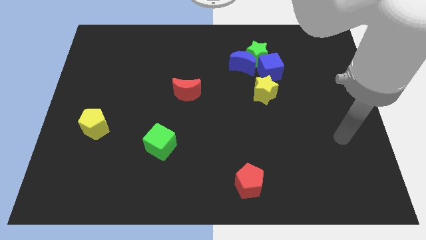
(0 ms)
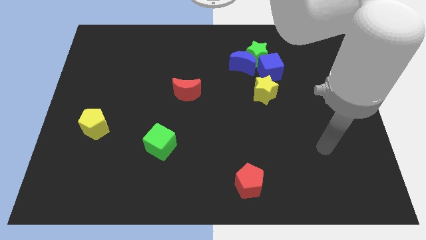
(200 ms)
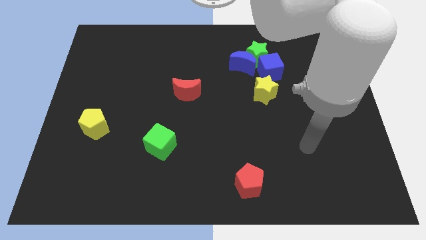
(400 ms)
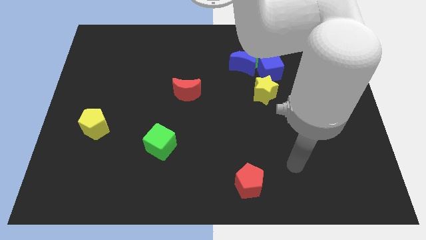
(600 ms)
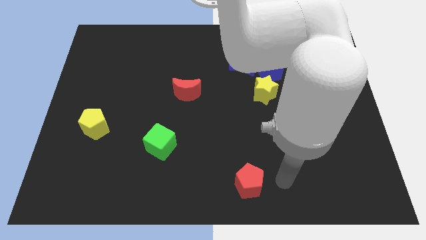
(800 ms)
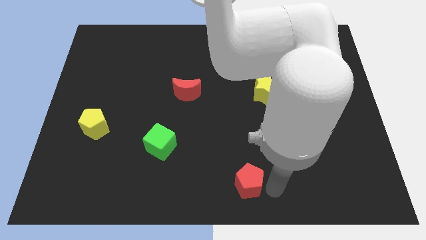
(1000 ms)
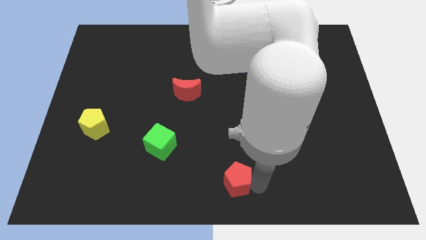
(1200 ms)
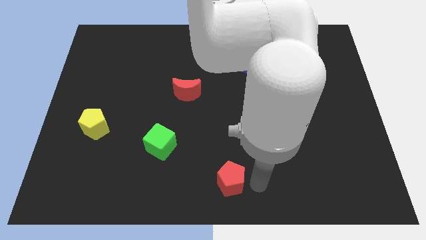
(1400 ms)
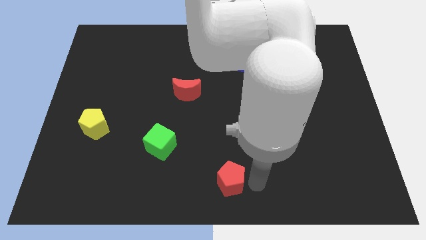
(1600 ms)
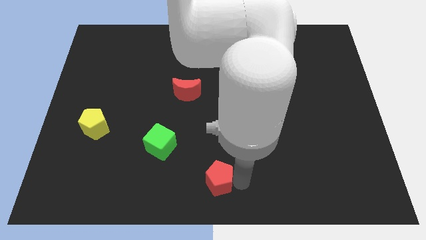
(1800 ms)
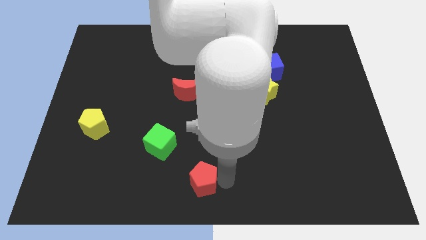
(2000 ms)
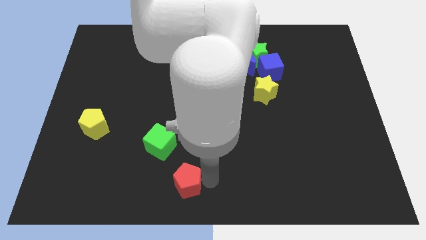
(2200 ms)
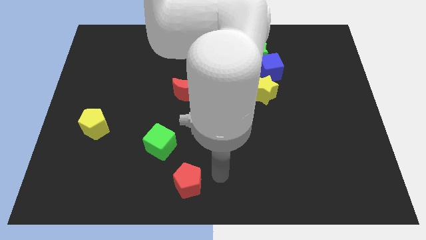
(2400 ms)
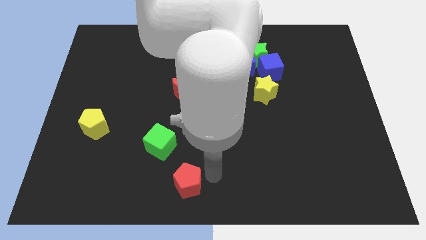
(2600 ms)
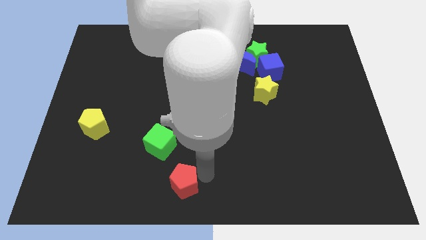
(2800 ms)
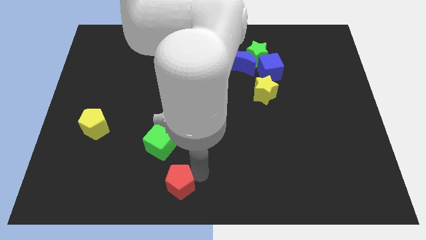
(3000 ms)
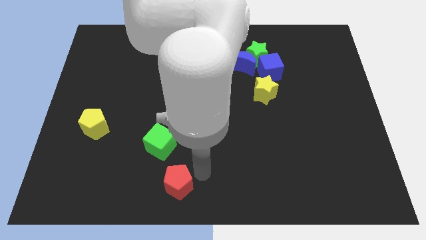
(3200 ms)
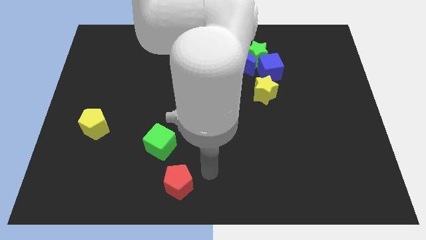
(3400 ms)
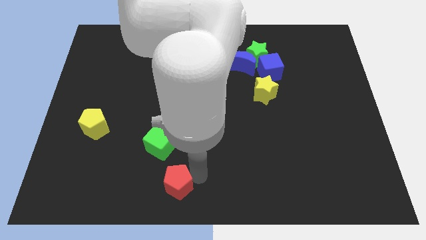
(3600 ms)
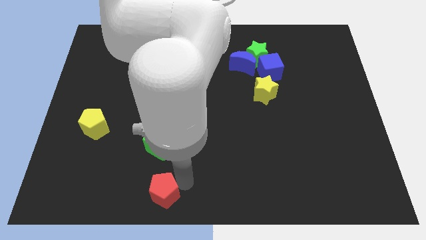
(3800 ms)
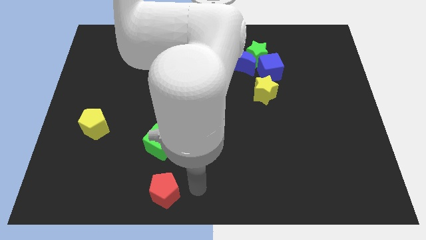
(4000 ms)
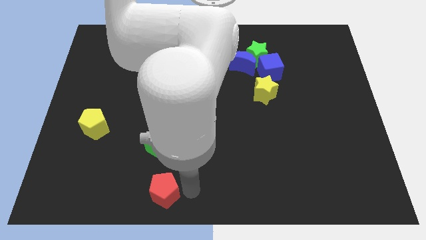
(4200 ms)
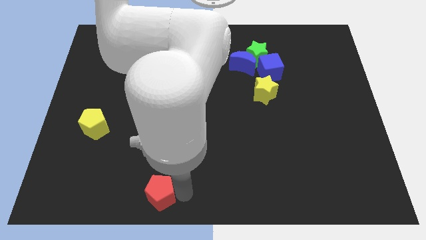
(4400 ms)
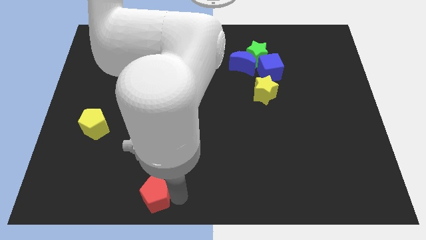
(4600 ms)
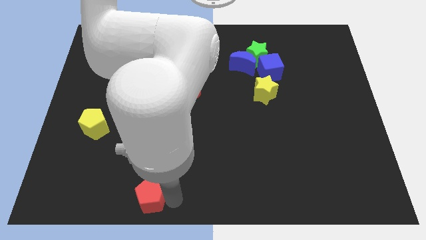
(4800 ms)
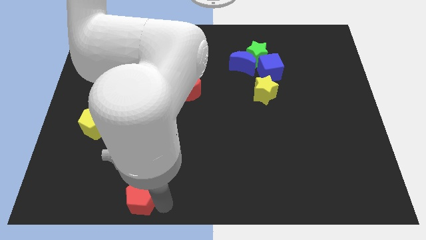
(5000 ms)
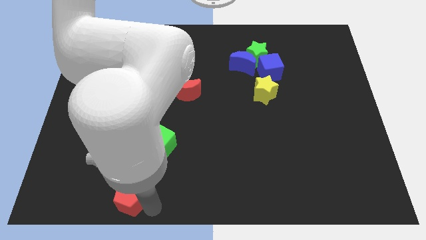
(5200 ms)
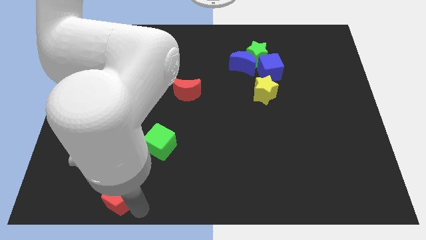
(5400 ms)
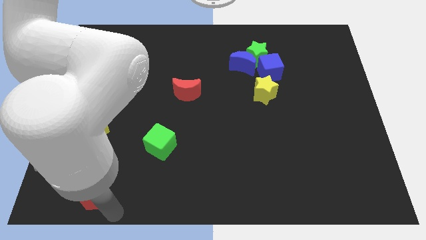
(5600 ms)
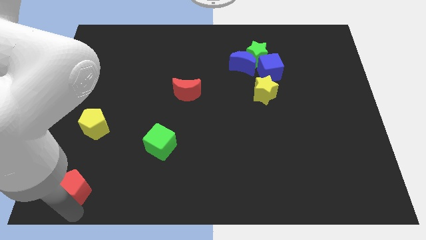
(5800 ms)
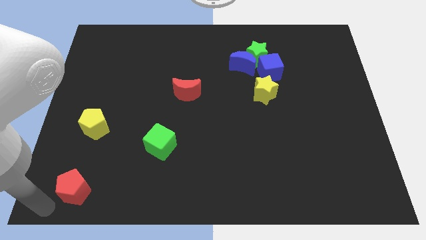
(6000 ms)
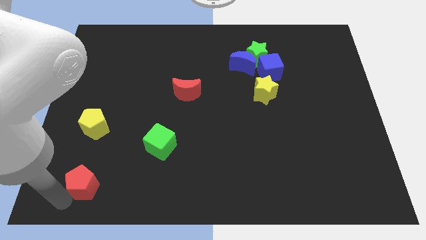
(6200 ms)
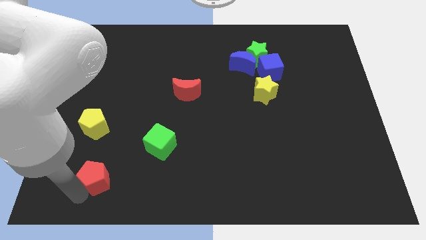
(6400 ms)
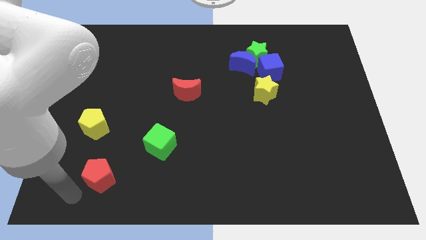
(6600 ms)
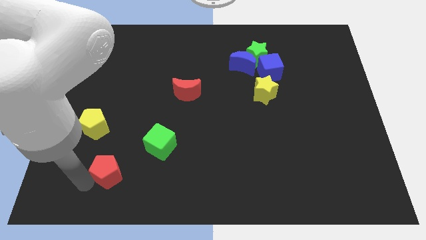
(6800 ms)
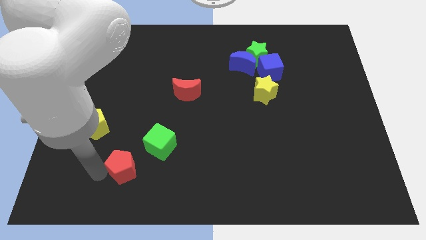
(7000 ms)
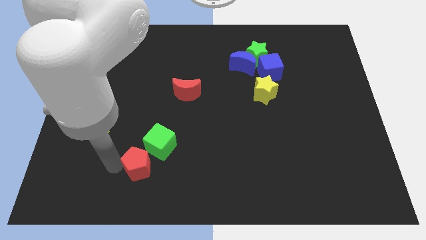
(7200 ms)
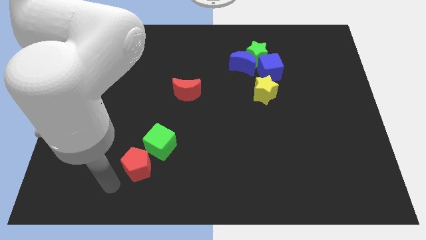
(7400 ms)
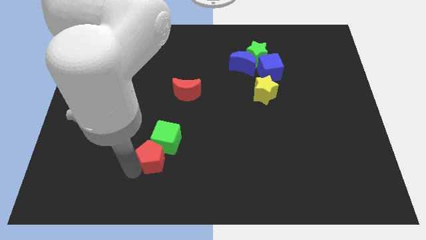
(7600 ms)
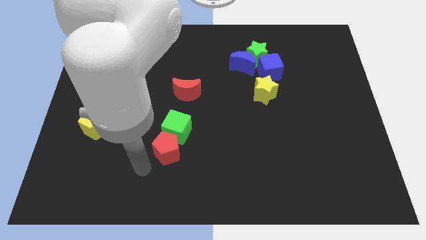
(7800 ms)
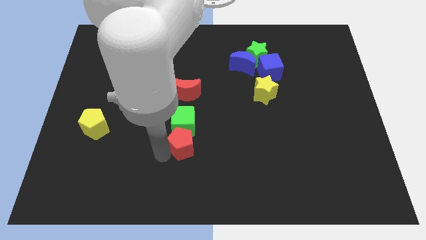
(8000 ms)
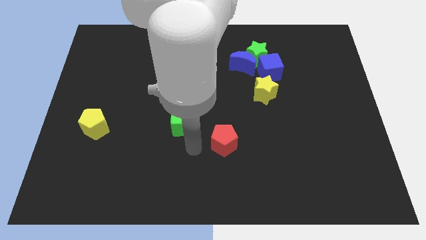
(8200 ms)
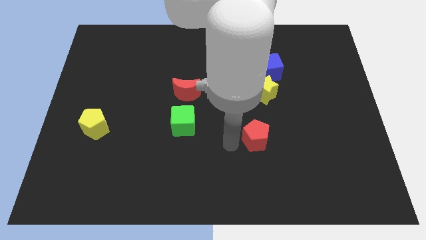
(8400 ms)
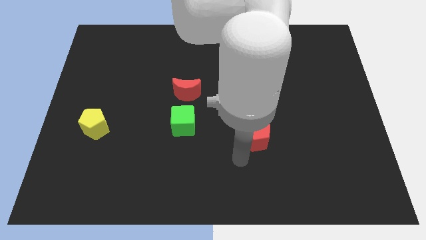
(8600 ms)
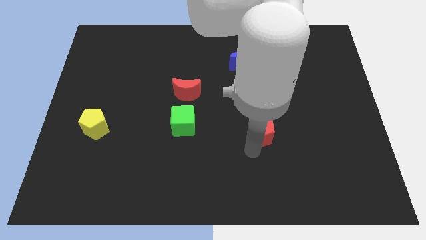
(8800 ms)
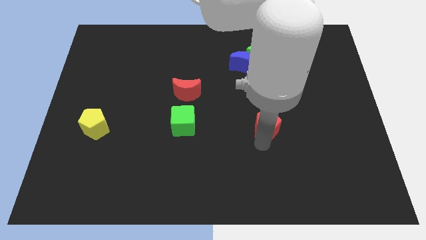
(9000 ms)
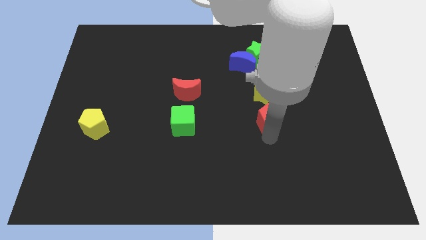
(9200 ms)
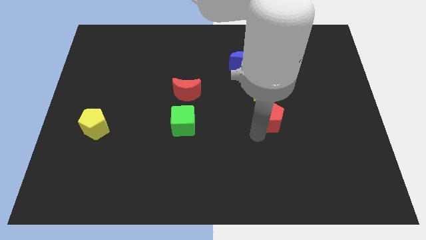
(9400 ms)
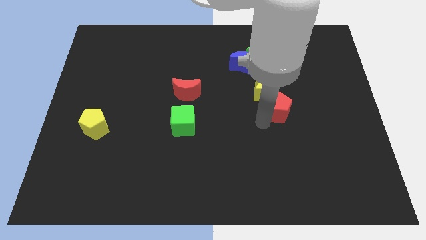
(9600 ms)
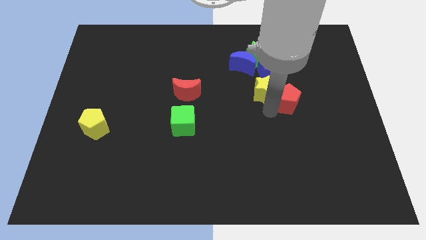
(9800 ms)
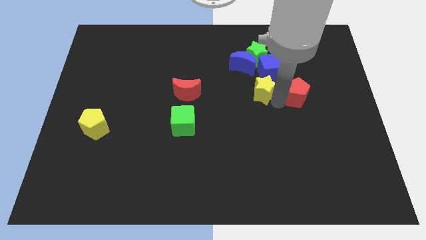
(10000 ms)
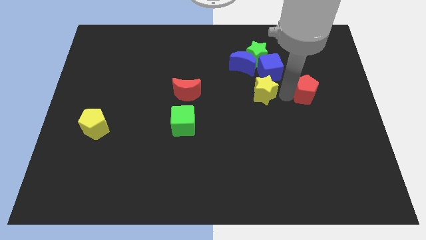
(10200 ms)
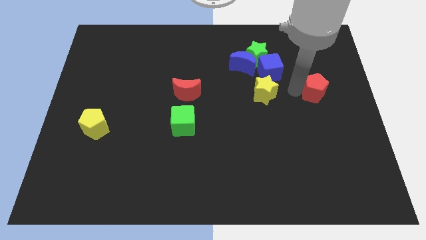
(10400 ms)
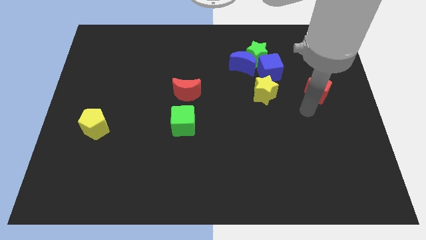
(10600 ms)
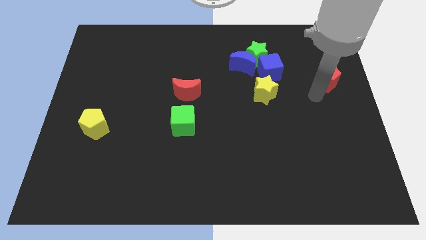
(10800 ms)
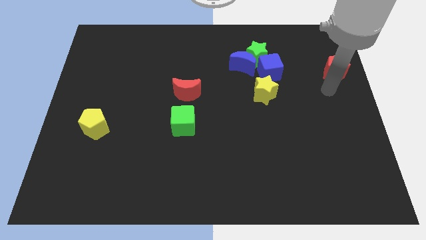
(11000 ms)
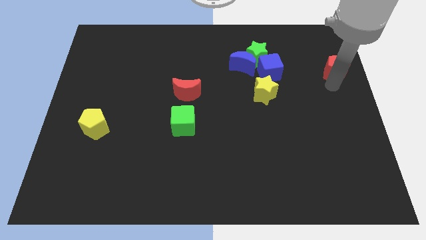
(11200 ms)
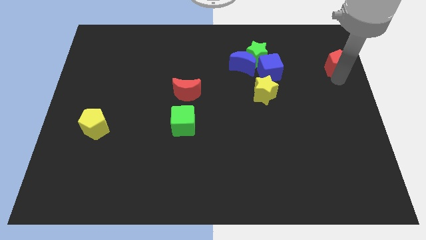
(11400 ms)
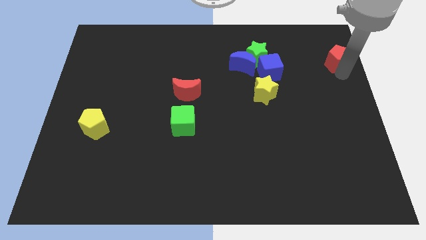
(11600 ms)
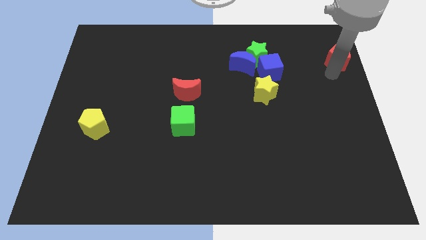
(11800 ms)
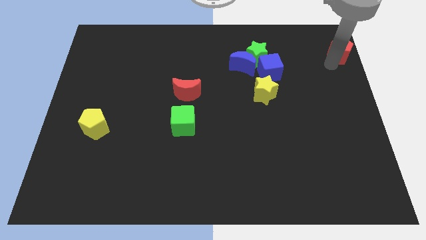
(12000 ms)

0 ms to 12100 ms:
move the red pentagon to the upper right corner

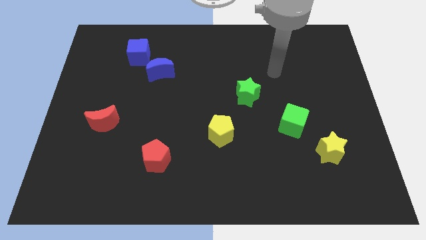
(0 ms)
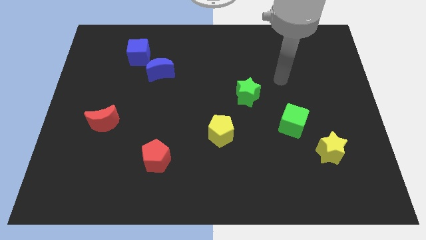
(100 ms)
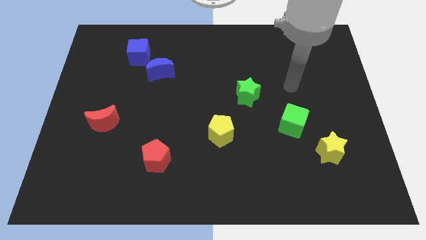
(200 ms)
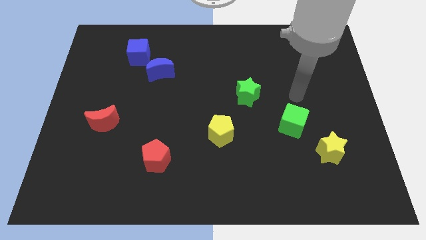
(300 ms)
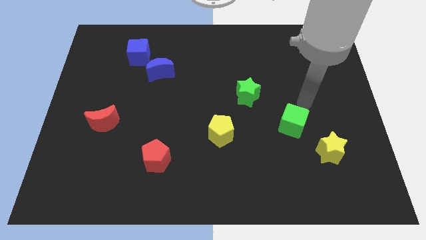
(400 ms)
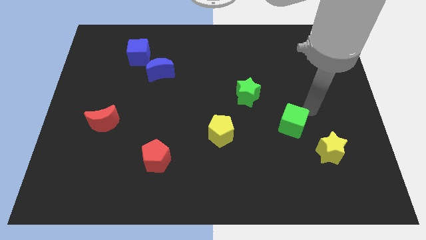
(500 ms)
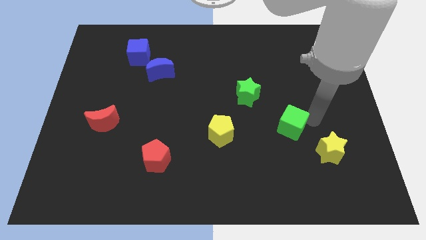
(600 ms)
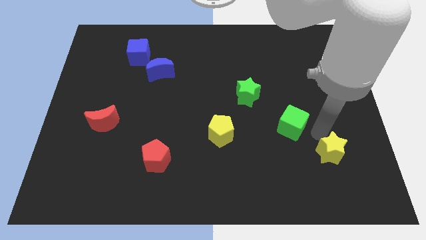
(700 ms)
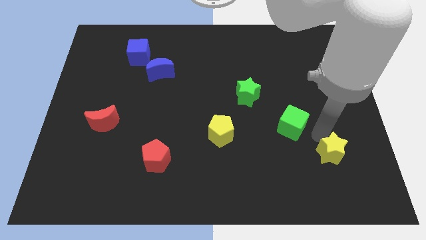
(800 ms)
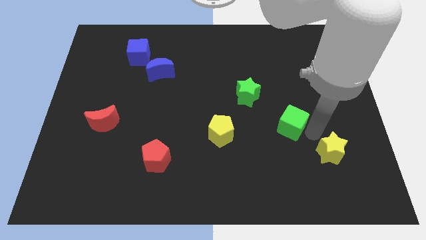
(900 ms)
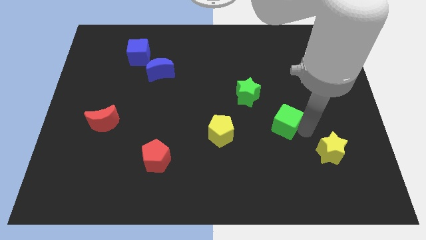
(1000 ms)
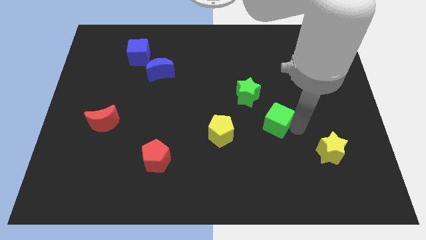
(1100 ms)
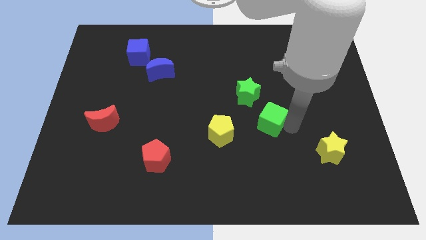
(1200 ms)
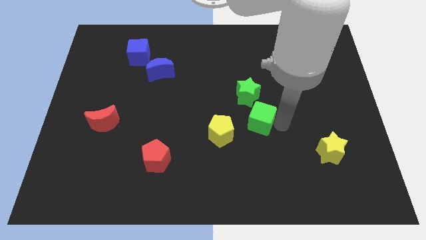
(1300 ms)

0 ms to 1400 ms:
slide the green cube to the center
